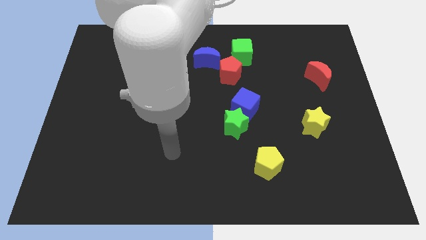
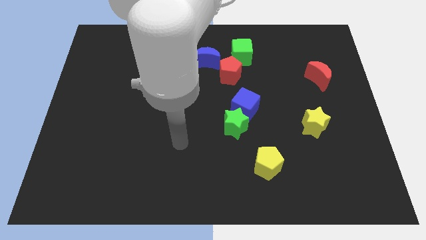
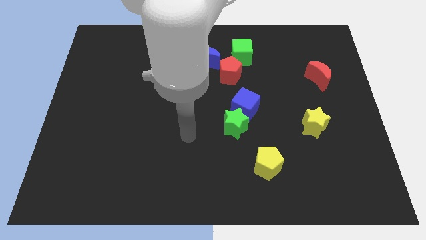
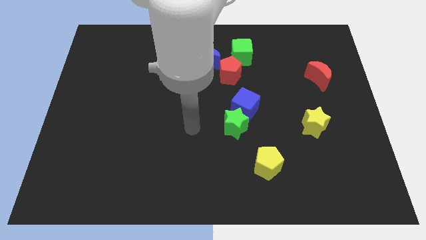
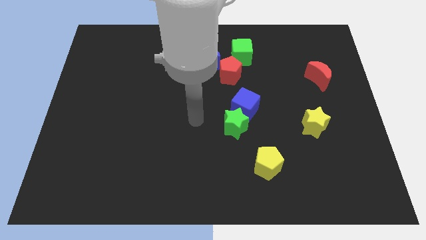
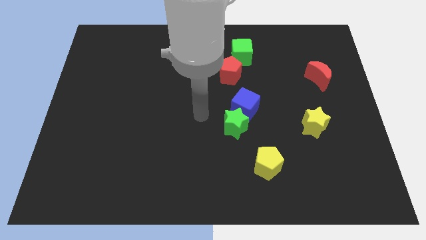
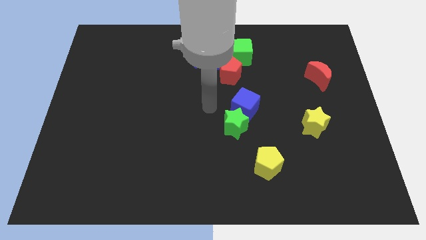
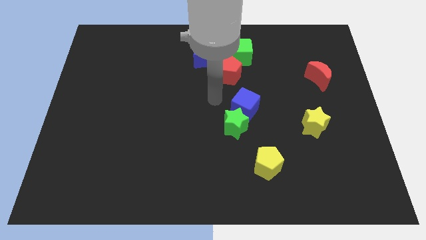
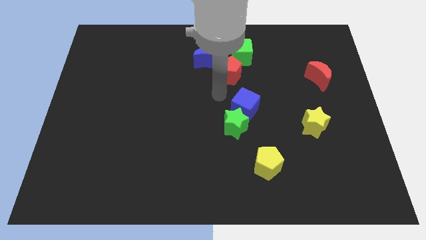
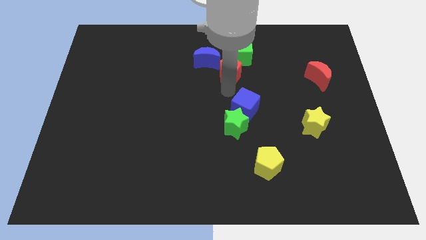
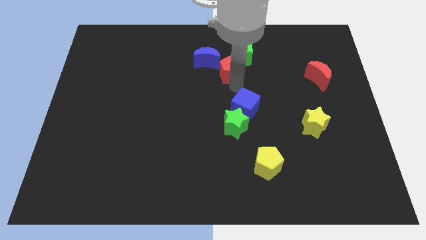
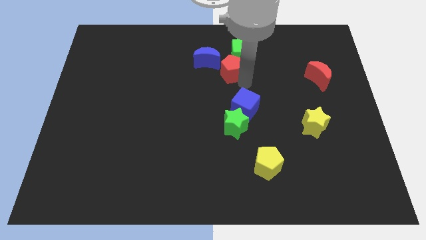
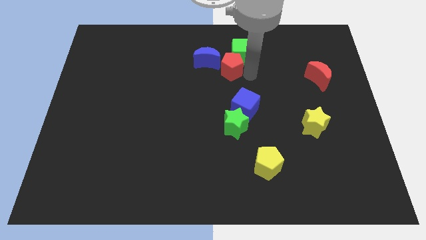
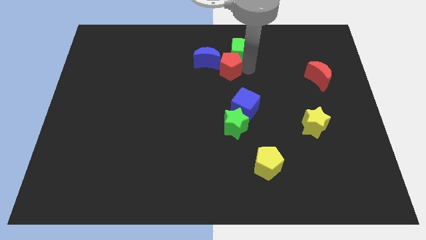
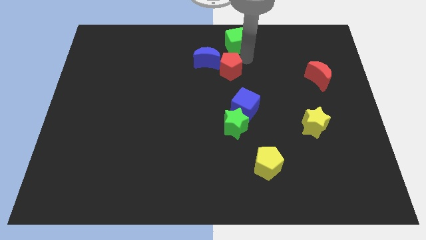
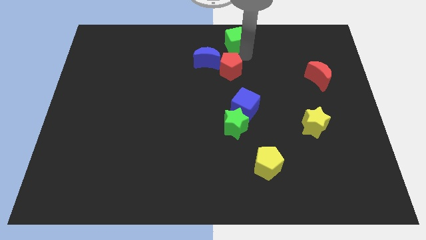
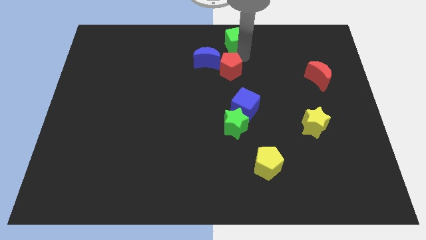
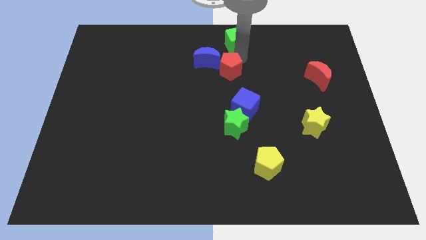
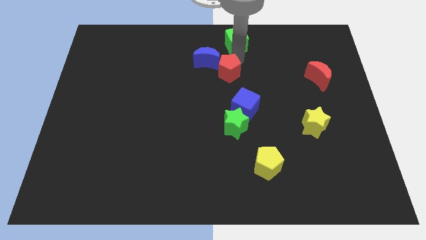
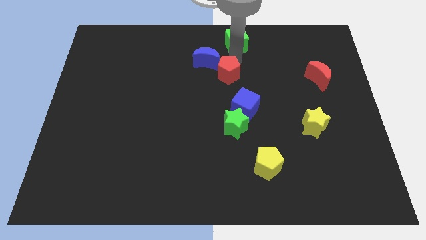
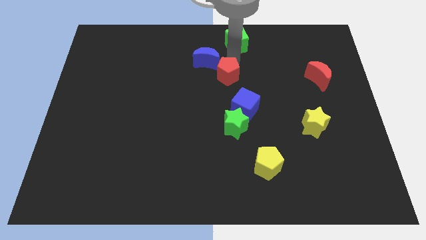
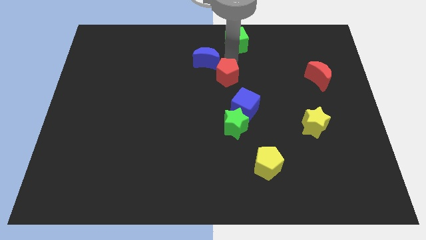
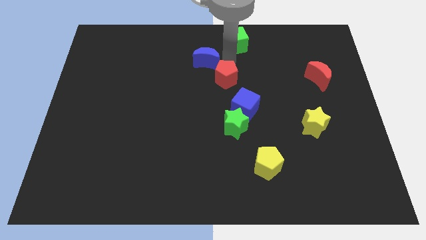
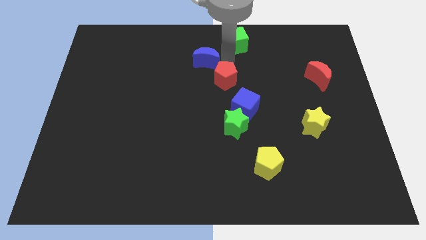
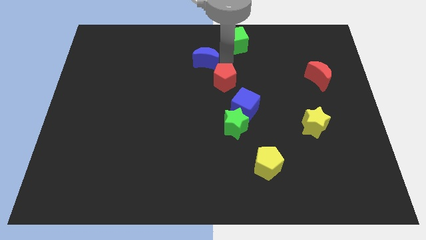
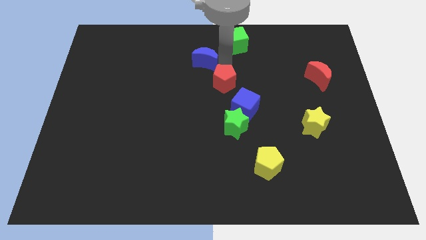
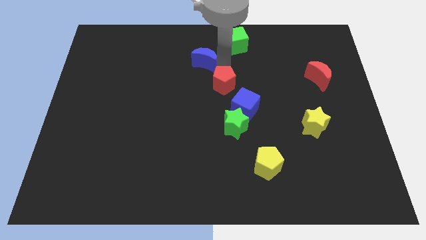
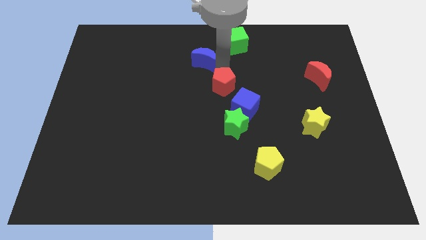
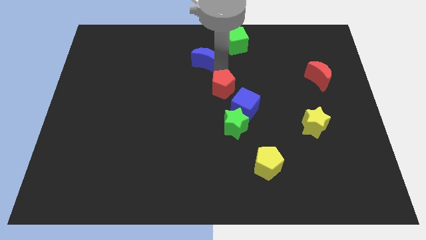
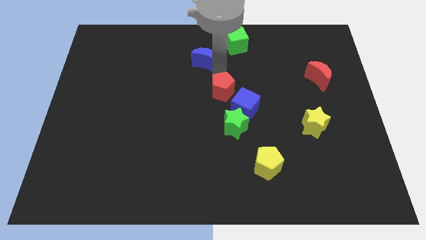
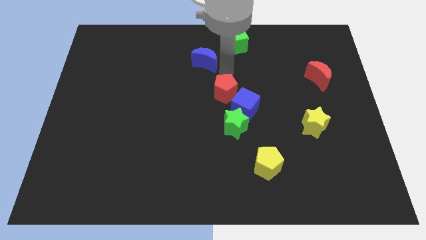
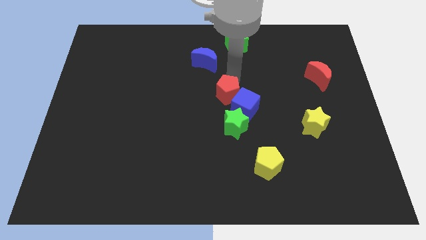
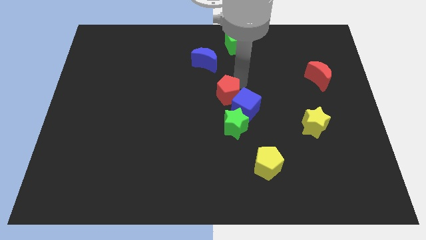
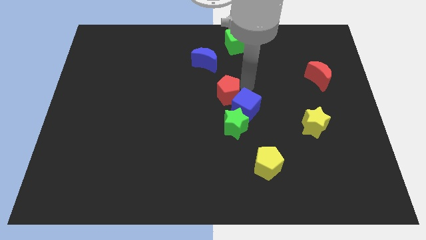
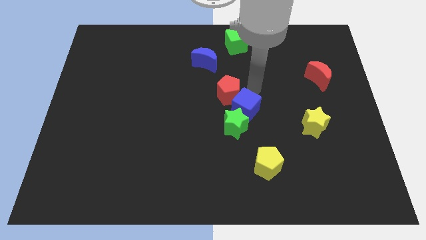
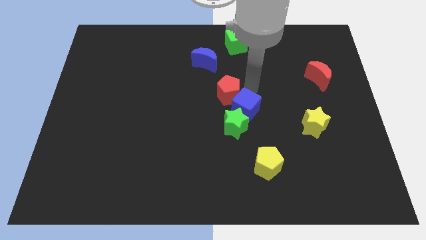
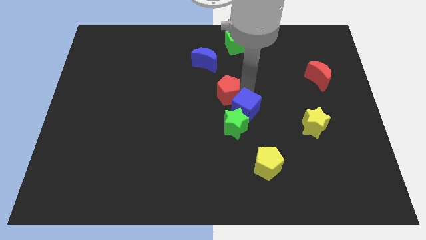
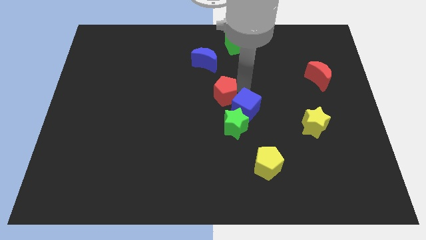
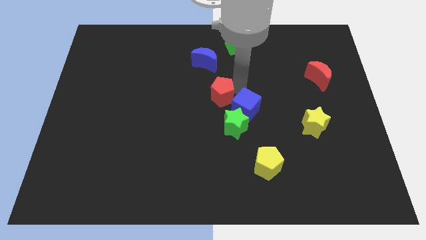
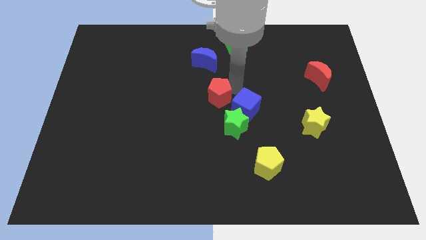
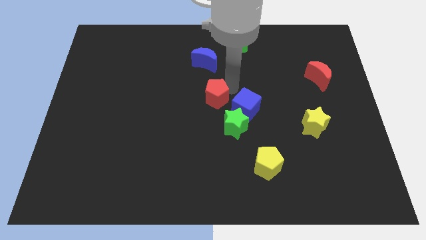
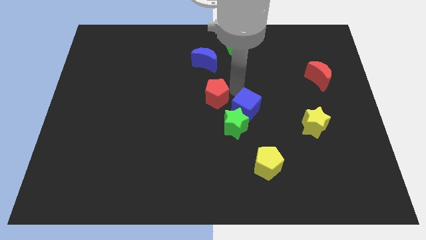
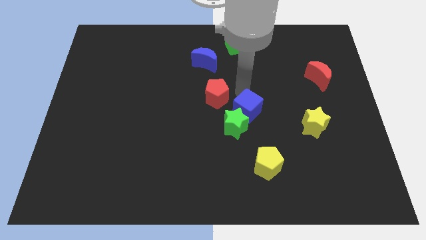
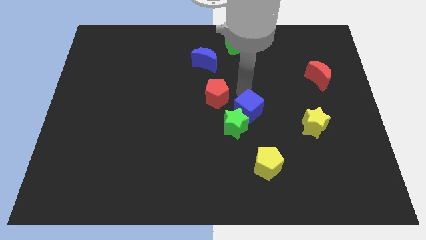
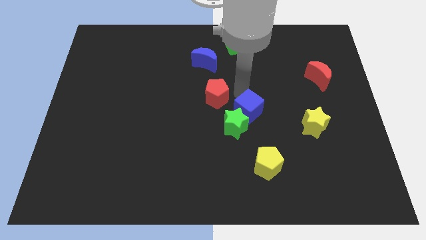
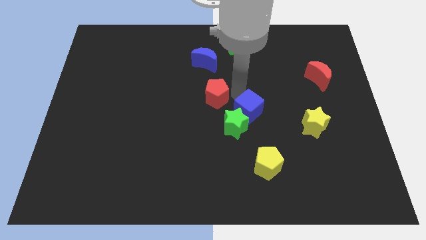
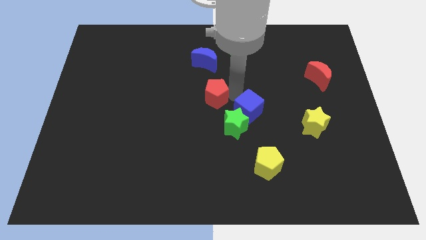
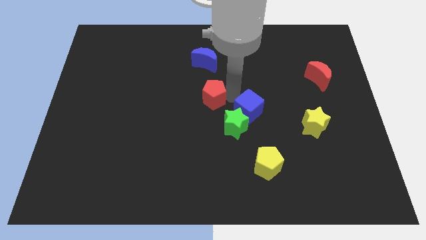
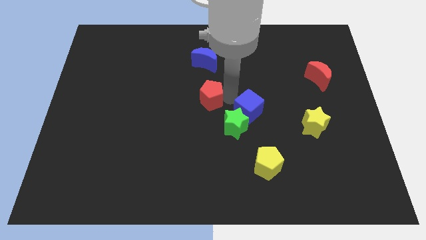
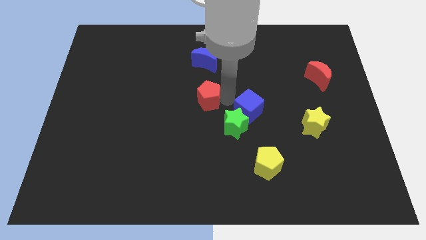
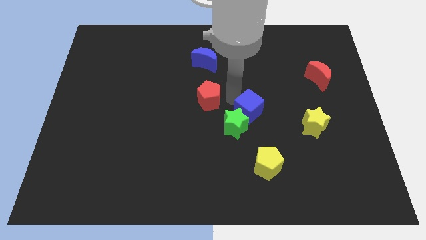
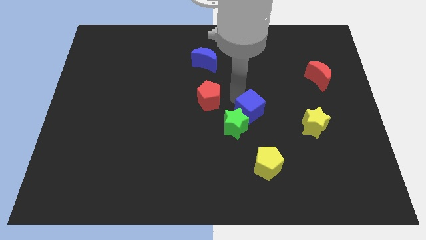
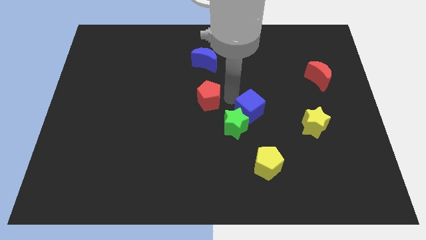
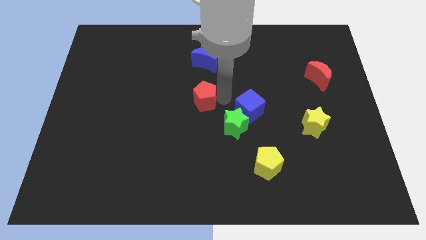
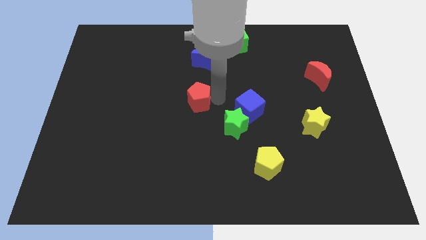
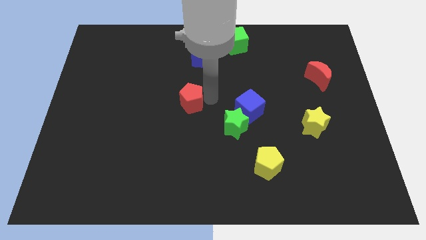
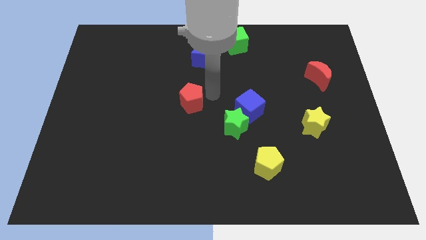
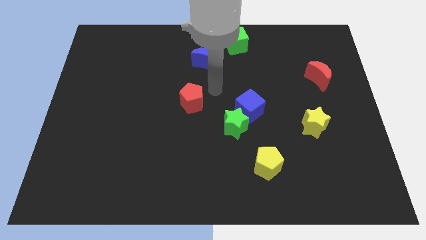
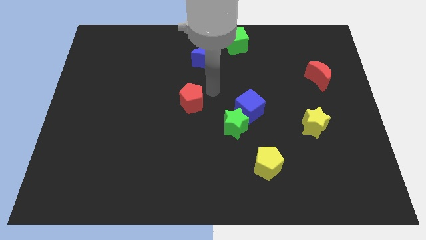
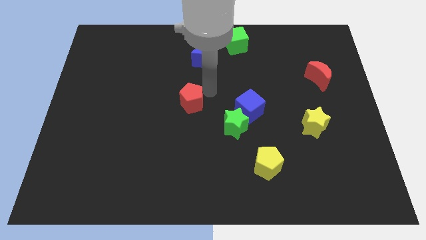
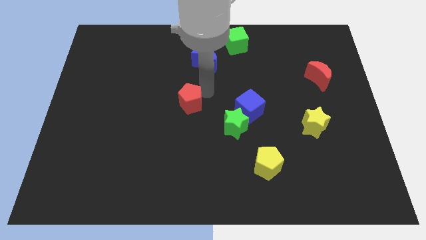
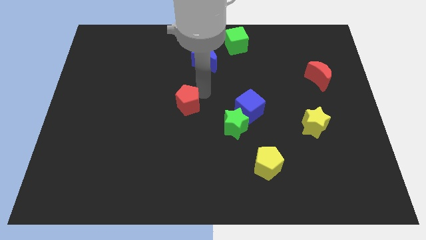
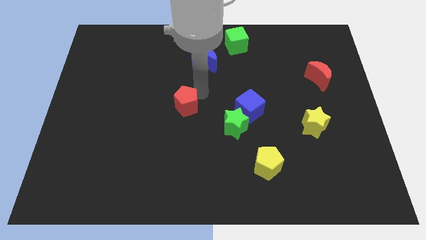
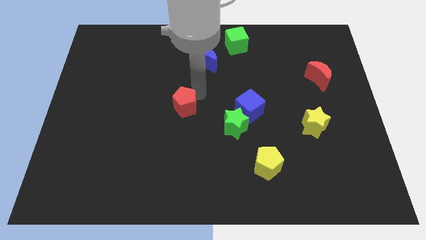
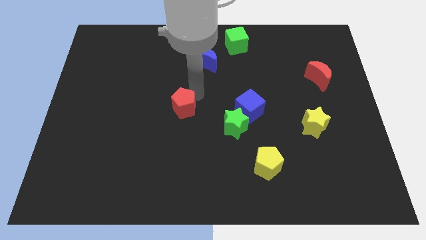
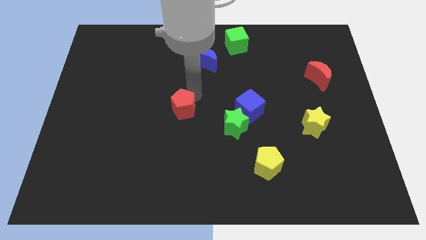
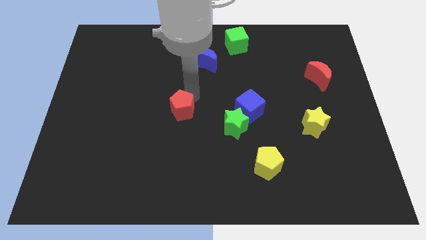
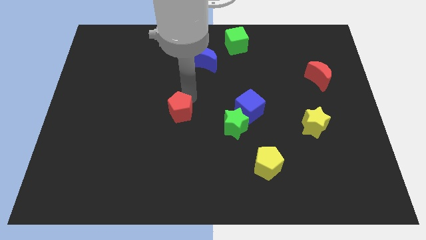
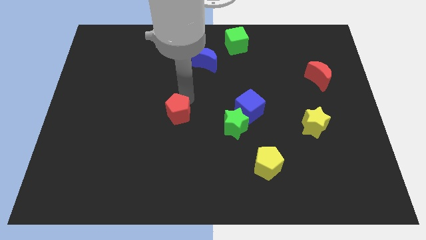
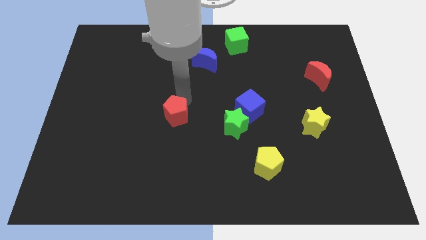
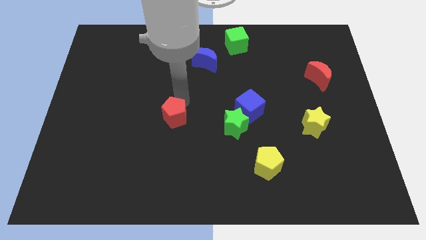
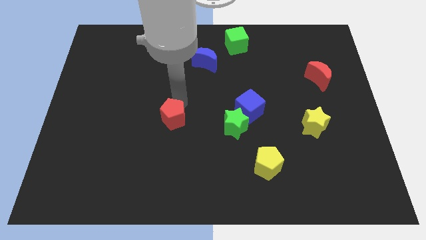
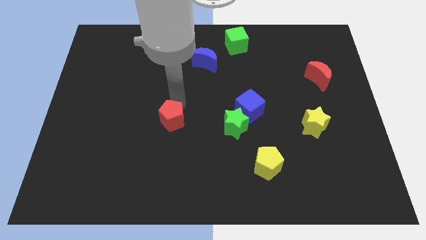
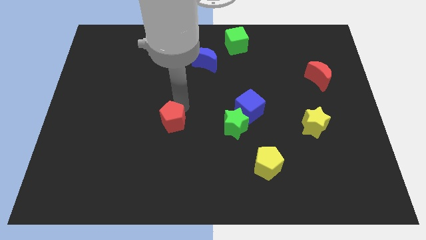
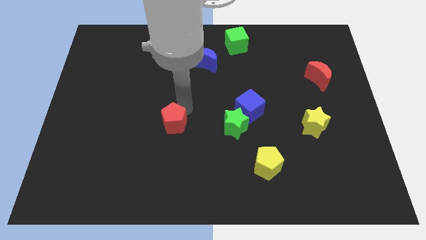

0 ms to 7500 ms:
slide the red pentagon diagonally downwards and left

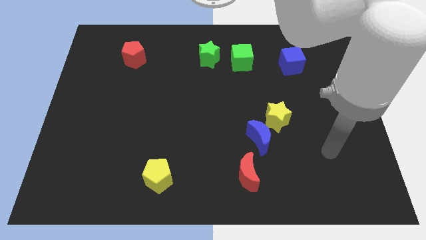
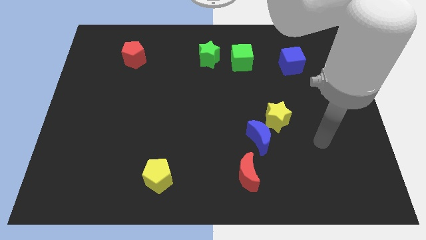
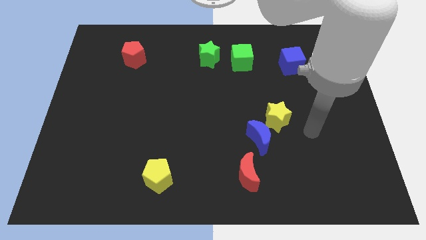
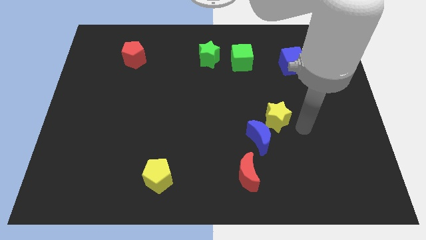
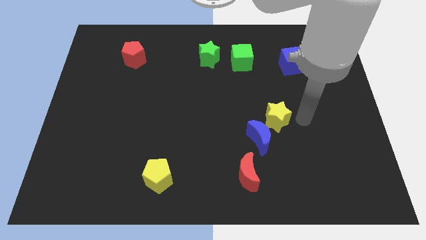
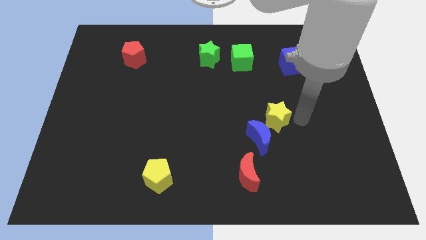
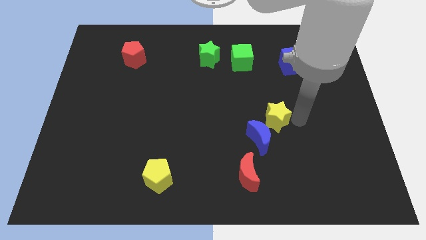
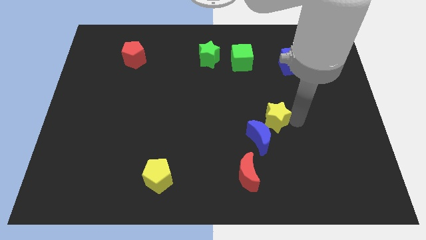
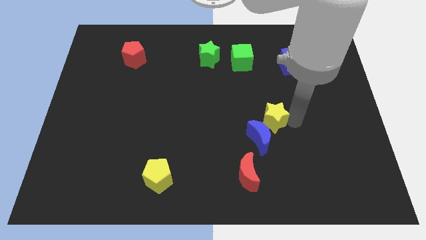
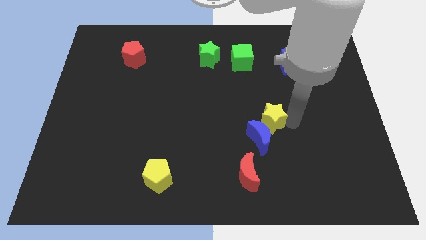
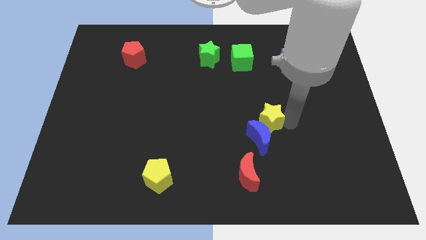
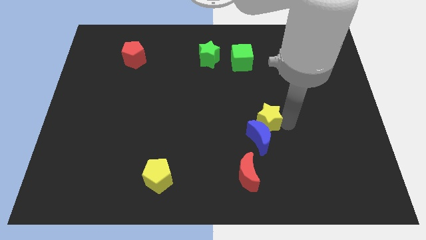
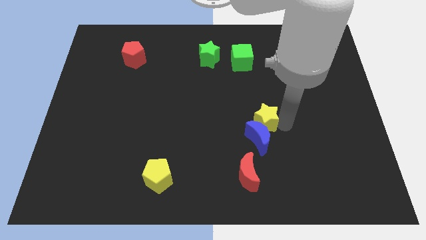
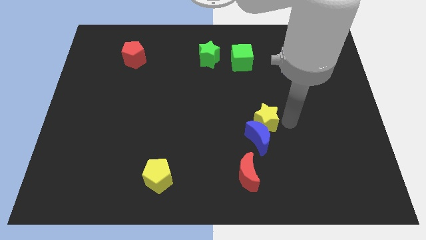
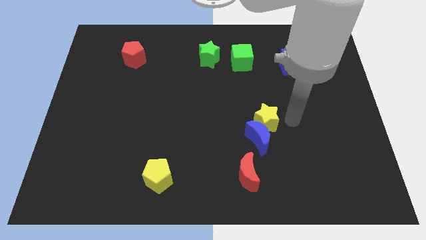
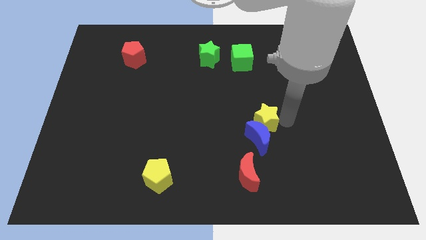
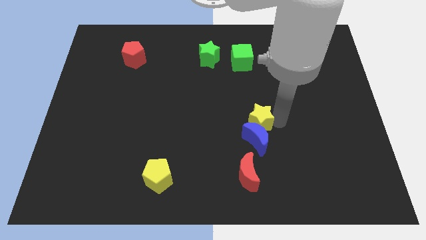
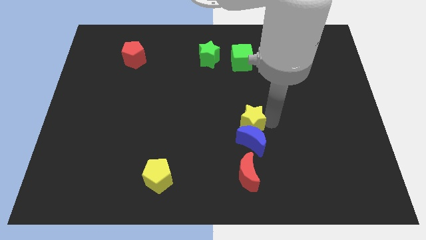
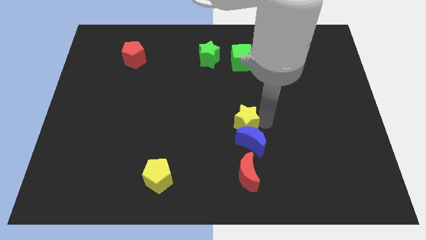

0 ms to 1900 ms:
move the yellow star left a little
